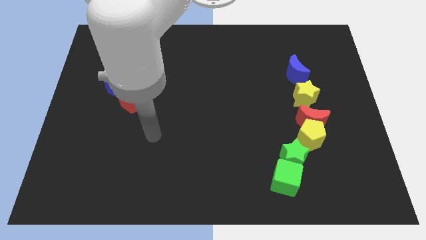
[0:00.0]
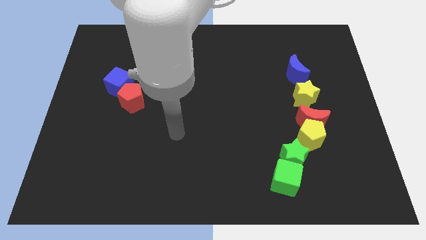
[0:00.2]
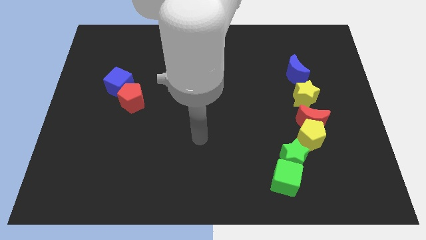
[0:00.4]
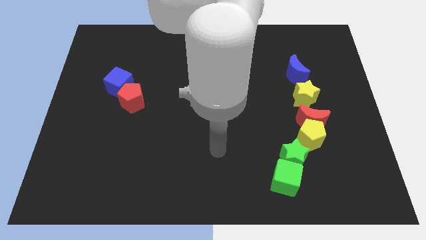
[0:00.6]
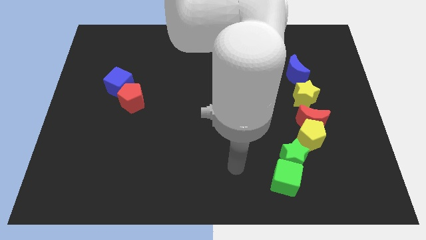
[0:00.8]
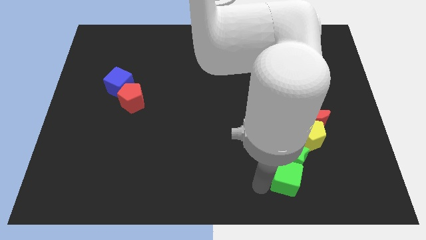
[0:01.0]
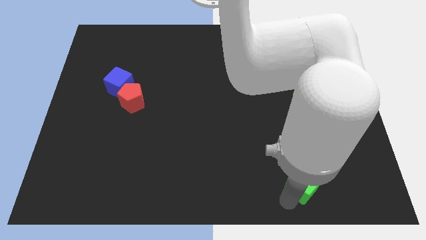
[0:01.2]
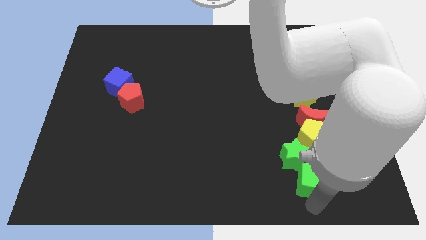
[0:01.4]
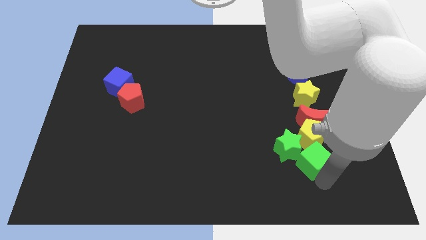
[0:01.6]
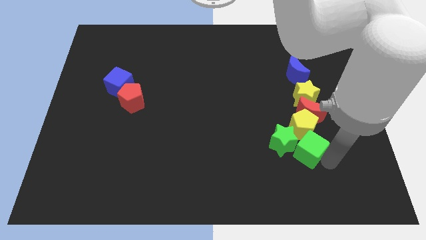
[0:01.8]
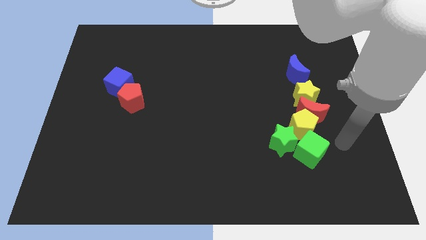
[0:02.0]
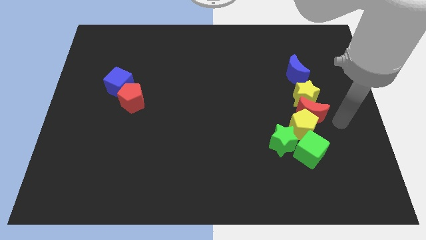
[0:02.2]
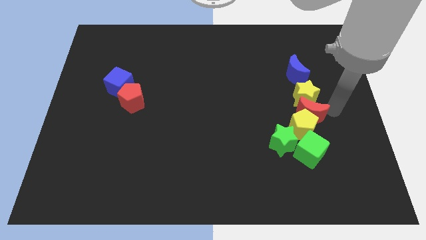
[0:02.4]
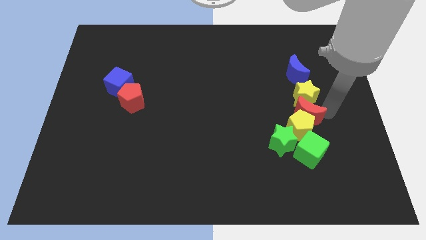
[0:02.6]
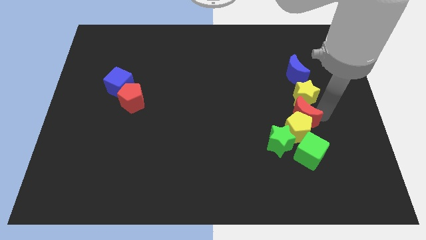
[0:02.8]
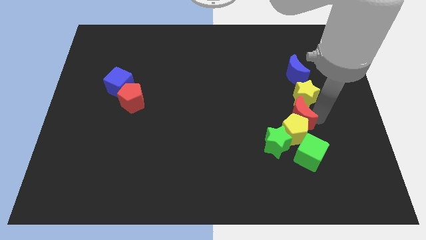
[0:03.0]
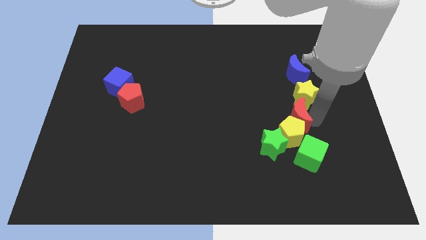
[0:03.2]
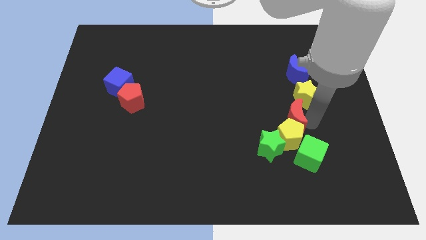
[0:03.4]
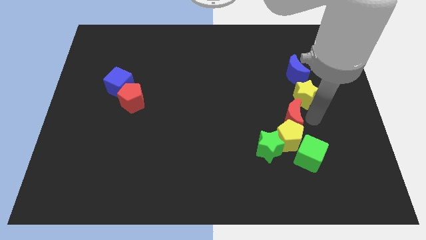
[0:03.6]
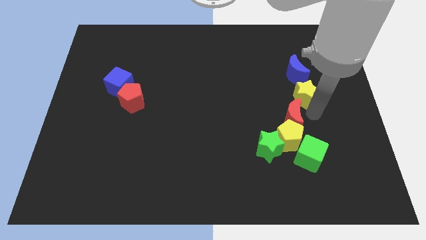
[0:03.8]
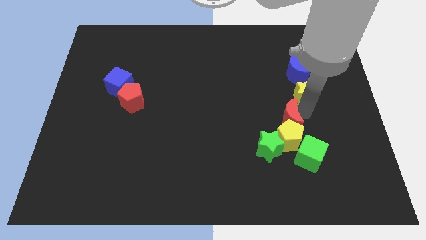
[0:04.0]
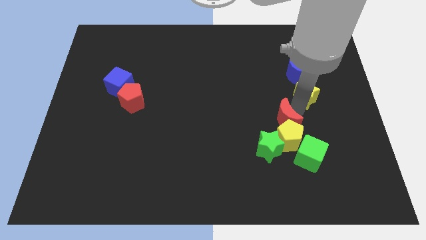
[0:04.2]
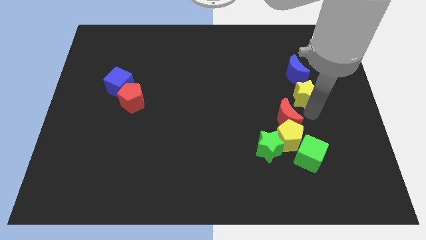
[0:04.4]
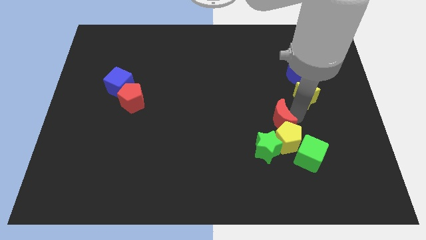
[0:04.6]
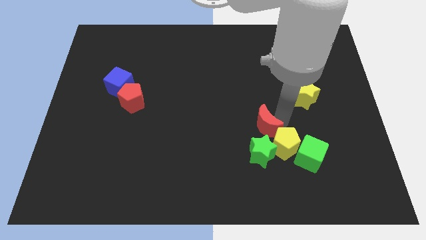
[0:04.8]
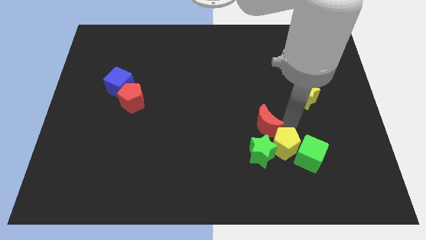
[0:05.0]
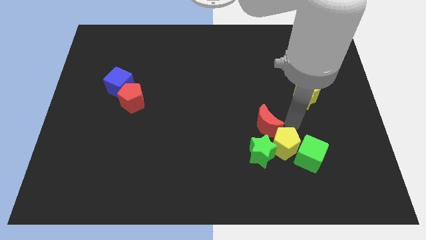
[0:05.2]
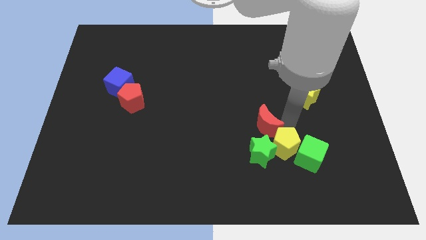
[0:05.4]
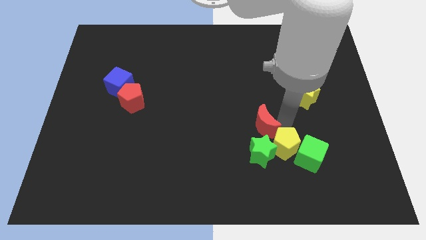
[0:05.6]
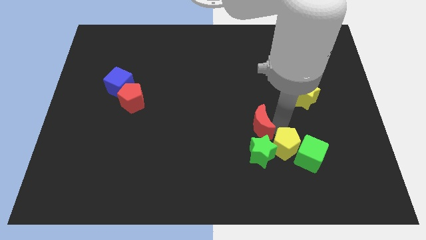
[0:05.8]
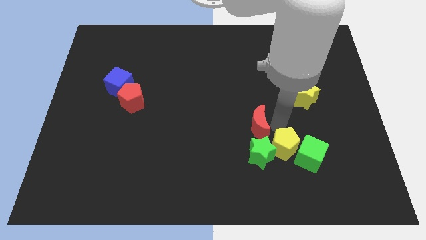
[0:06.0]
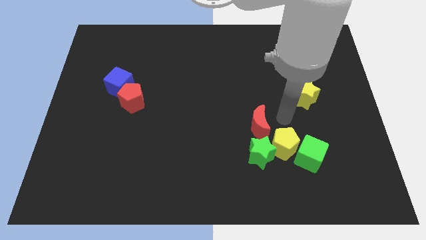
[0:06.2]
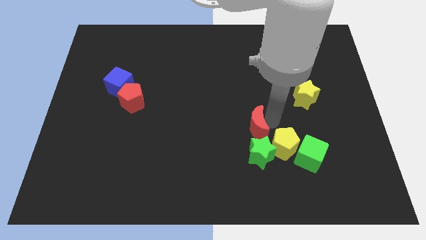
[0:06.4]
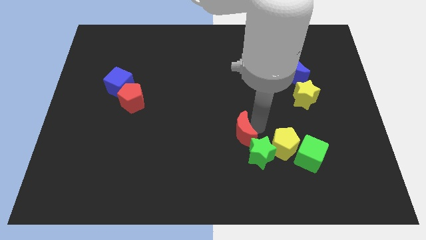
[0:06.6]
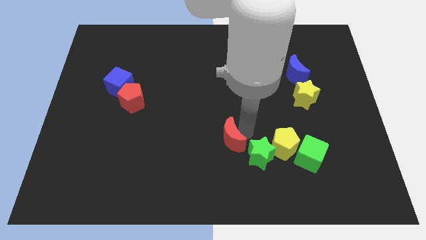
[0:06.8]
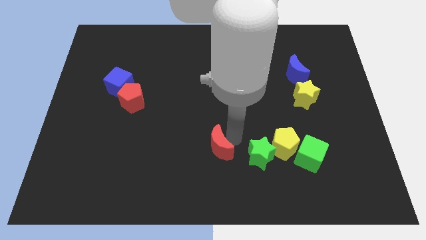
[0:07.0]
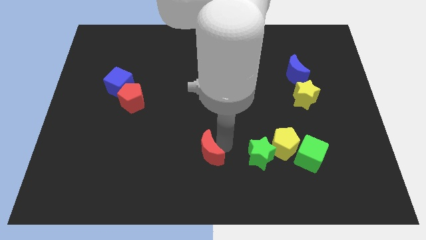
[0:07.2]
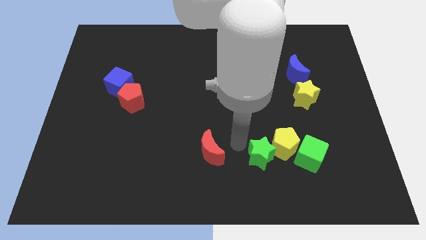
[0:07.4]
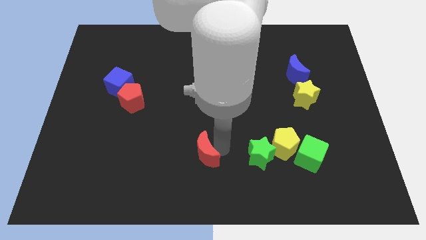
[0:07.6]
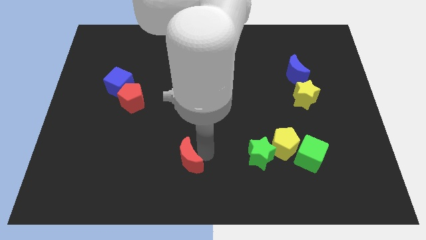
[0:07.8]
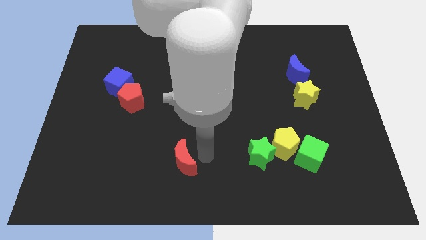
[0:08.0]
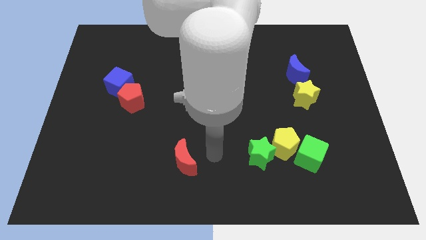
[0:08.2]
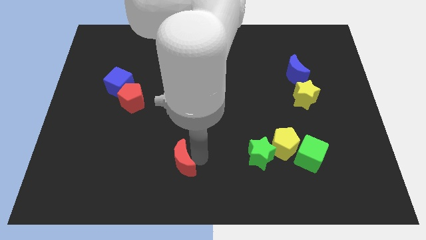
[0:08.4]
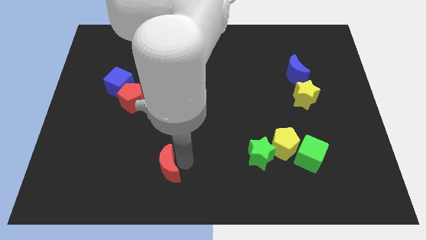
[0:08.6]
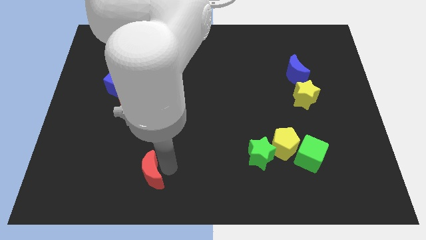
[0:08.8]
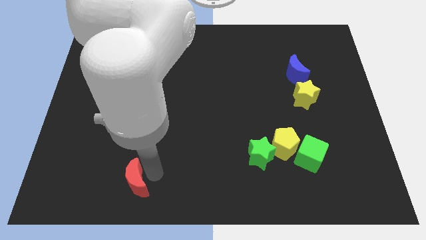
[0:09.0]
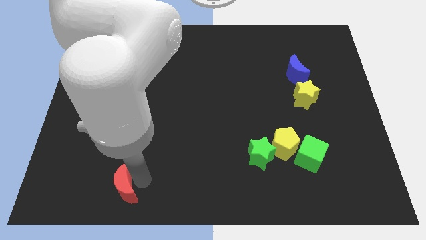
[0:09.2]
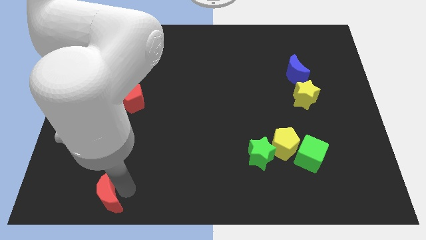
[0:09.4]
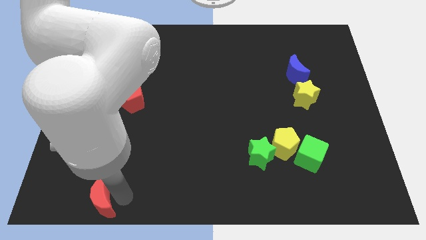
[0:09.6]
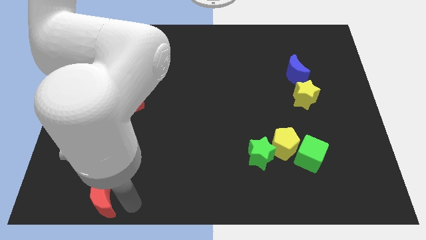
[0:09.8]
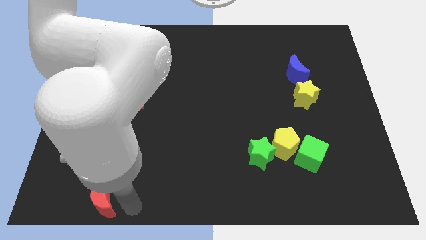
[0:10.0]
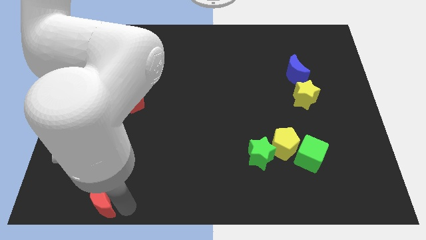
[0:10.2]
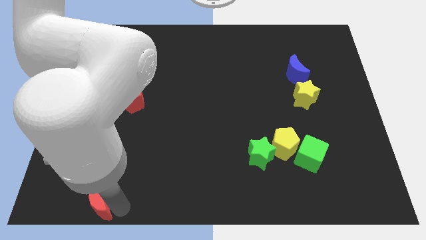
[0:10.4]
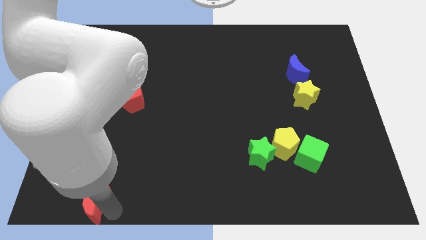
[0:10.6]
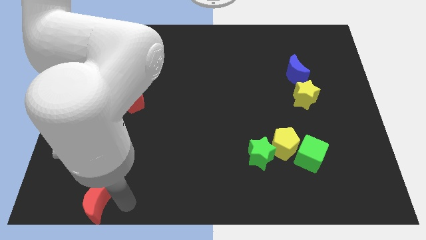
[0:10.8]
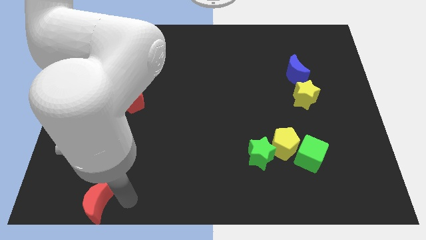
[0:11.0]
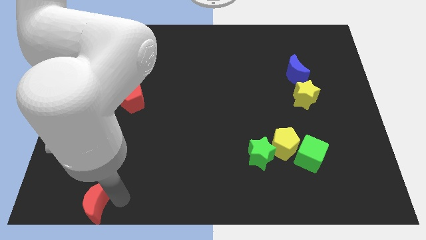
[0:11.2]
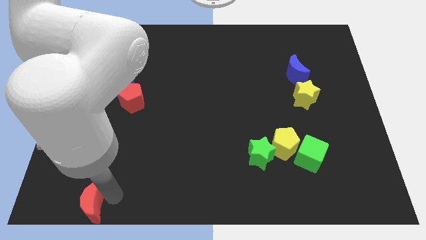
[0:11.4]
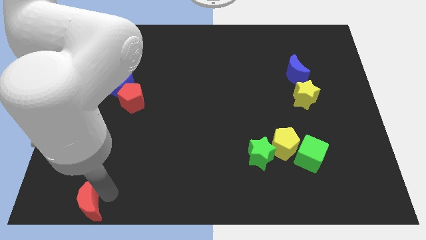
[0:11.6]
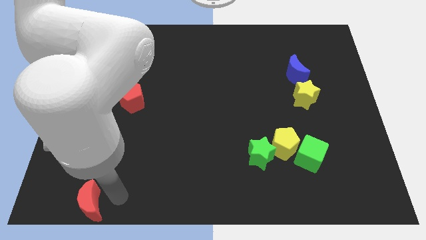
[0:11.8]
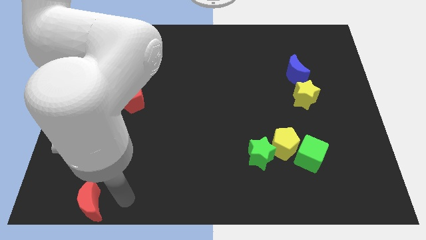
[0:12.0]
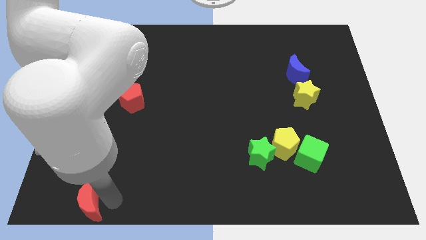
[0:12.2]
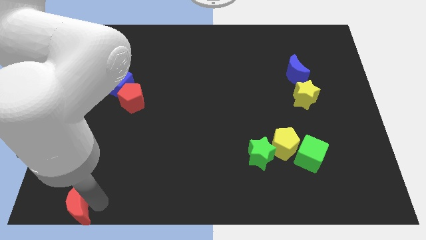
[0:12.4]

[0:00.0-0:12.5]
slide the red moon to the bottom left of the board

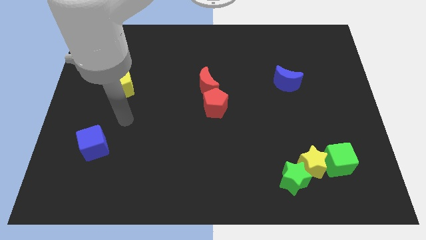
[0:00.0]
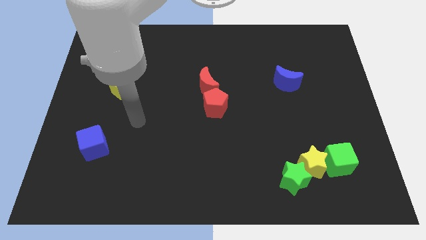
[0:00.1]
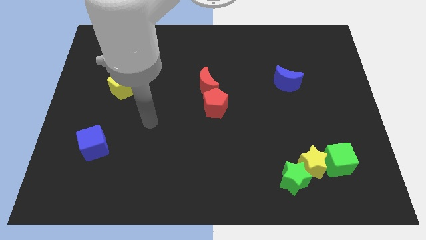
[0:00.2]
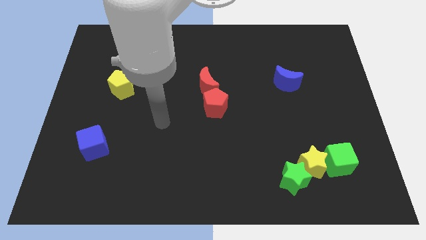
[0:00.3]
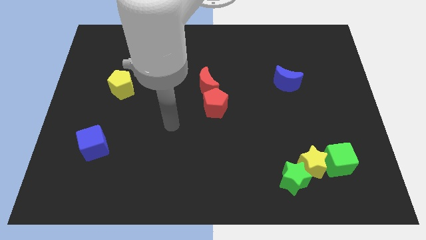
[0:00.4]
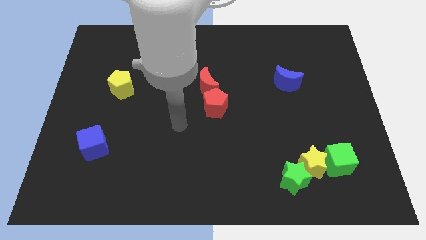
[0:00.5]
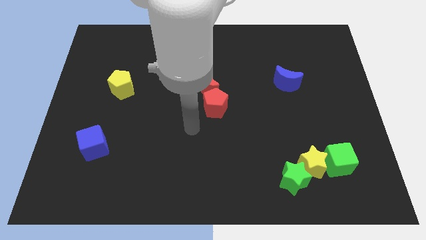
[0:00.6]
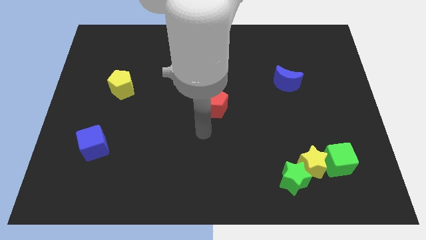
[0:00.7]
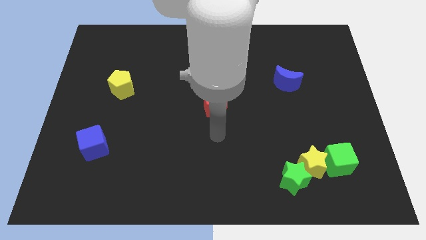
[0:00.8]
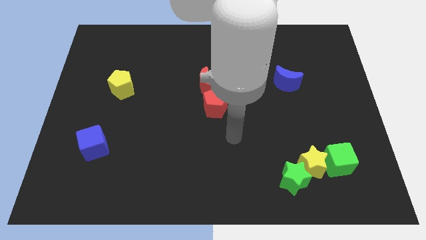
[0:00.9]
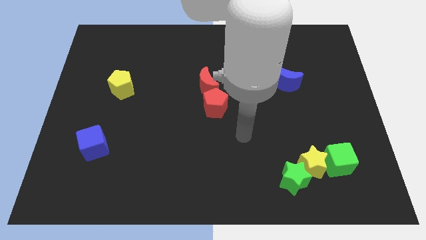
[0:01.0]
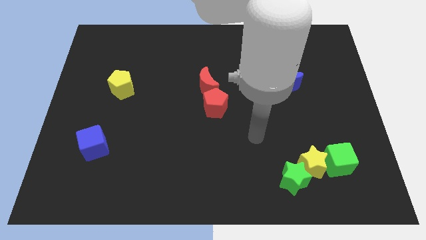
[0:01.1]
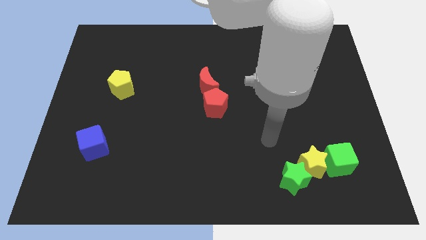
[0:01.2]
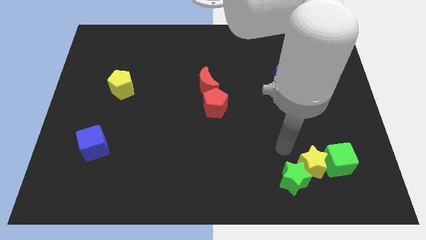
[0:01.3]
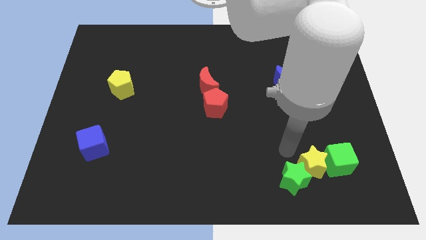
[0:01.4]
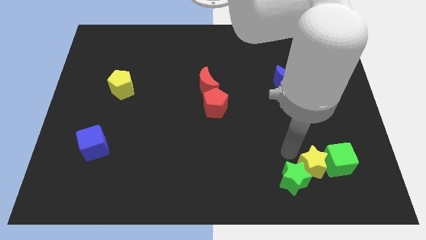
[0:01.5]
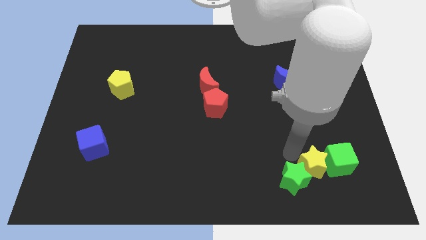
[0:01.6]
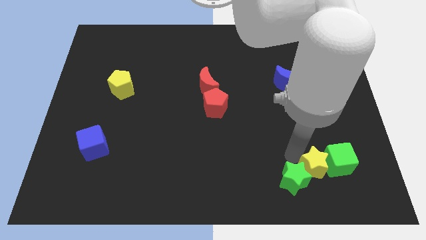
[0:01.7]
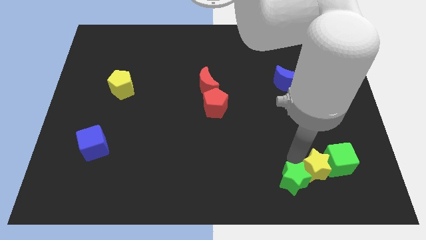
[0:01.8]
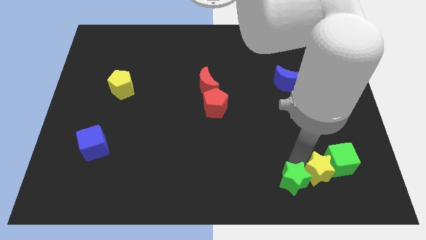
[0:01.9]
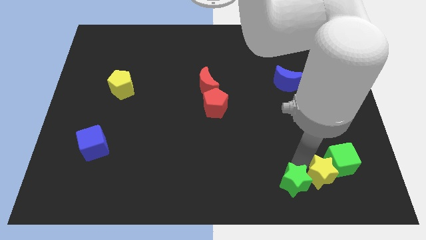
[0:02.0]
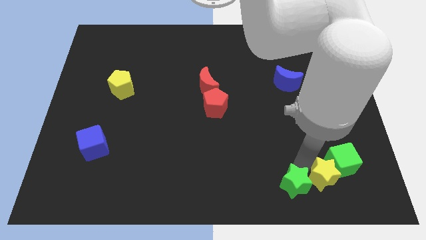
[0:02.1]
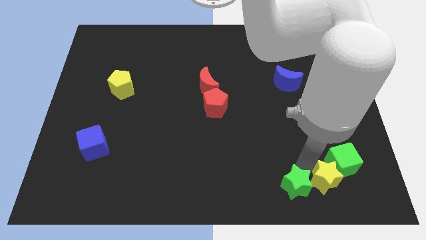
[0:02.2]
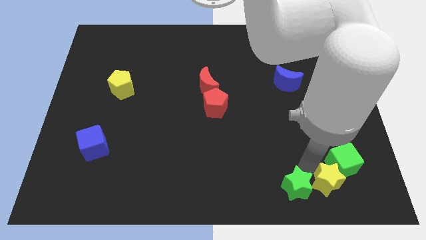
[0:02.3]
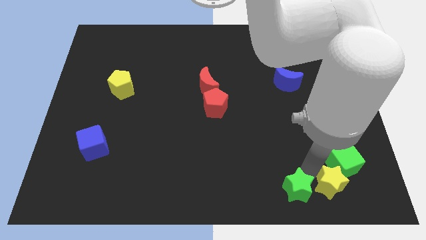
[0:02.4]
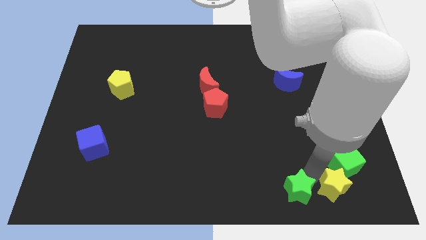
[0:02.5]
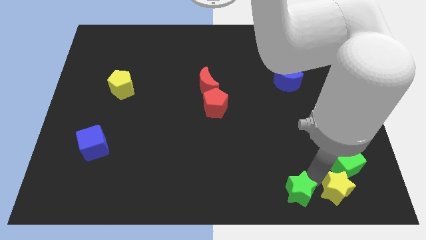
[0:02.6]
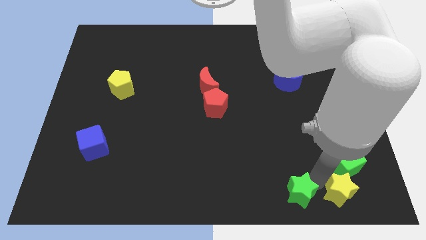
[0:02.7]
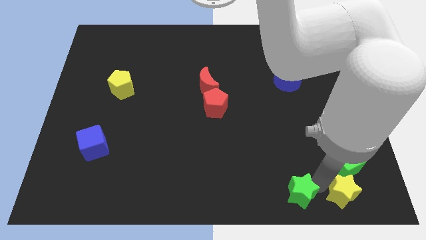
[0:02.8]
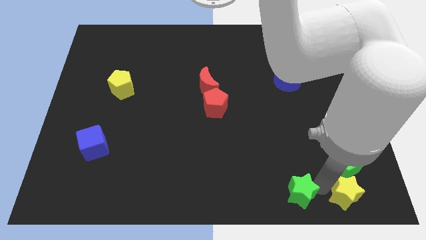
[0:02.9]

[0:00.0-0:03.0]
move the yellow star to the bottom right
